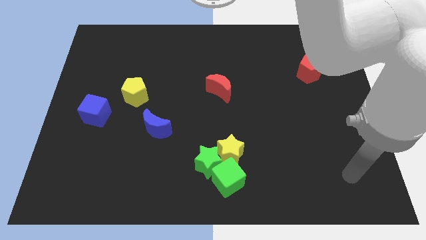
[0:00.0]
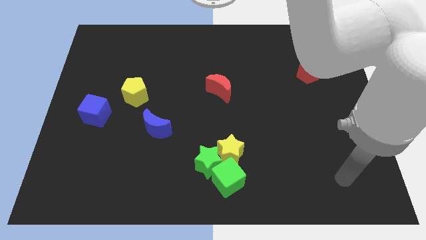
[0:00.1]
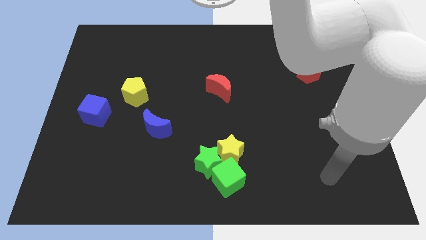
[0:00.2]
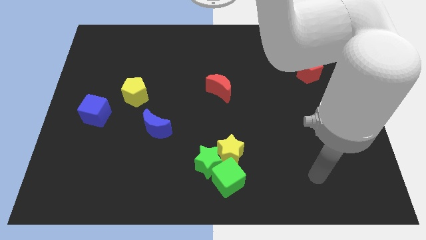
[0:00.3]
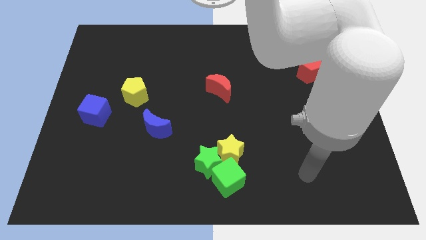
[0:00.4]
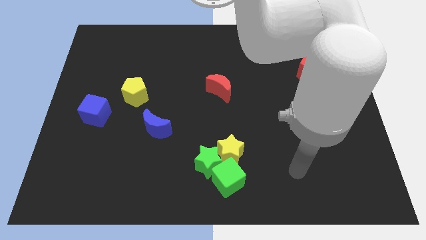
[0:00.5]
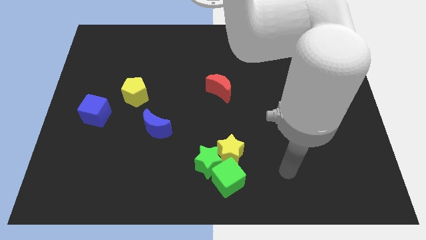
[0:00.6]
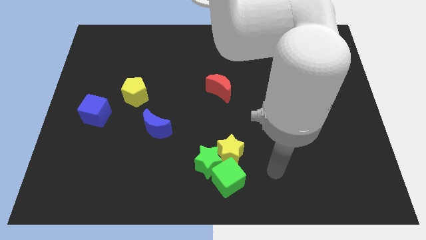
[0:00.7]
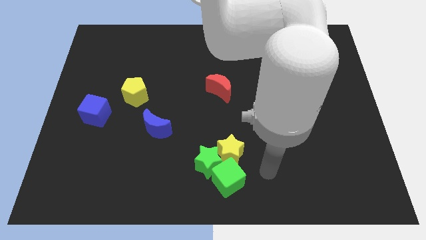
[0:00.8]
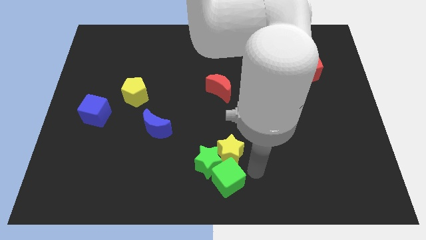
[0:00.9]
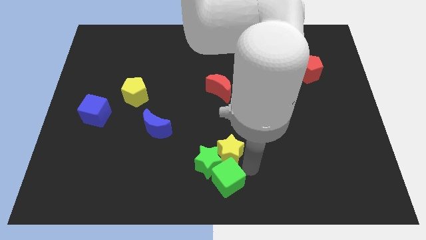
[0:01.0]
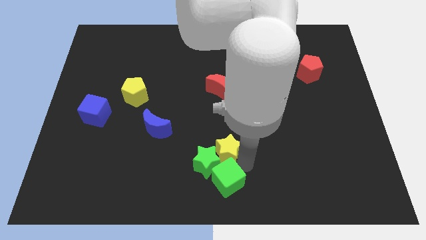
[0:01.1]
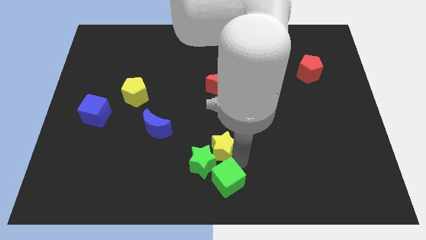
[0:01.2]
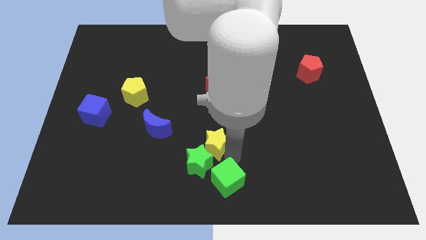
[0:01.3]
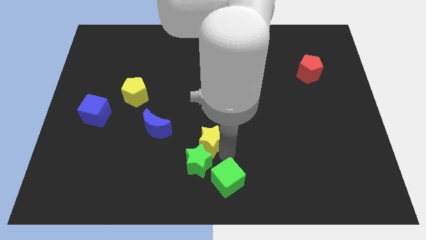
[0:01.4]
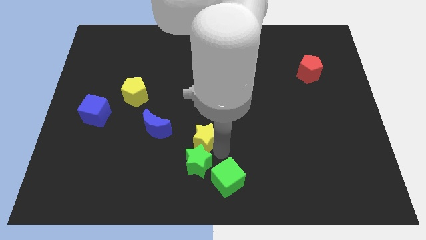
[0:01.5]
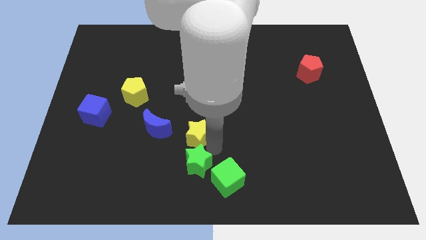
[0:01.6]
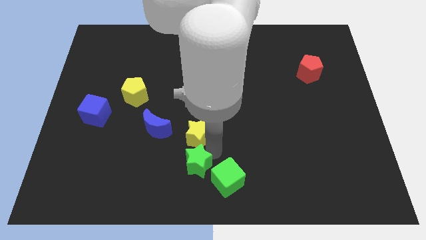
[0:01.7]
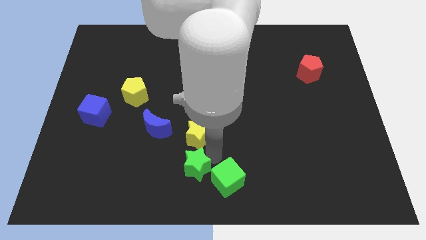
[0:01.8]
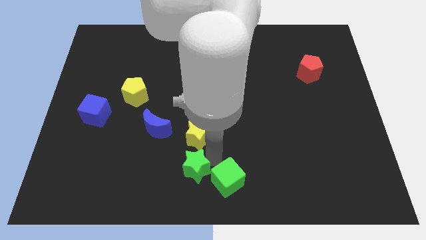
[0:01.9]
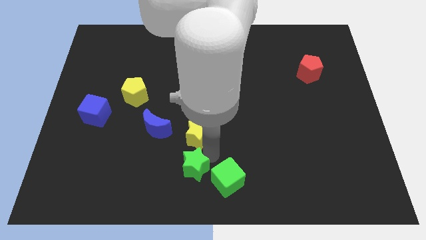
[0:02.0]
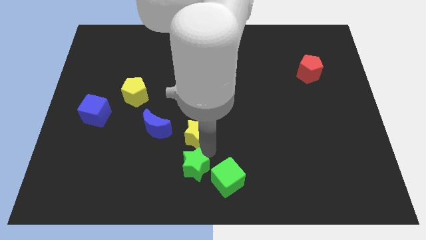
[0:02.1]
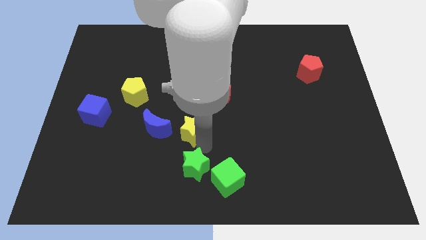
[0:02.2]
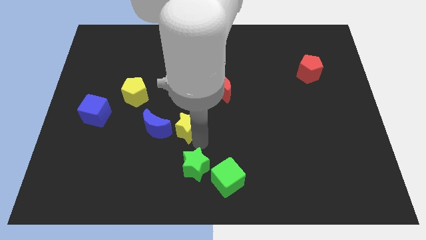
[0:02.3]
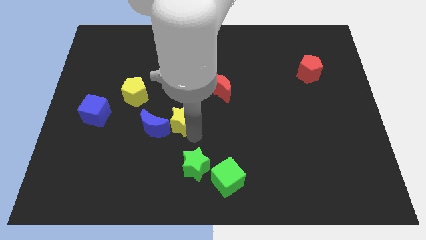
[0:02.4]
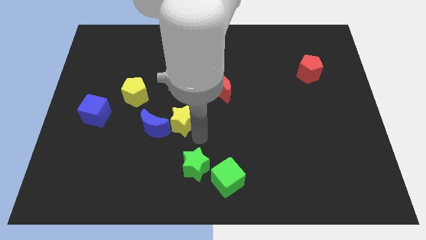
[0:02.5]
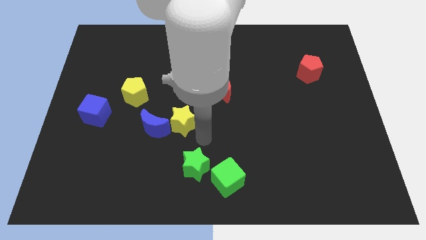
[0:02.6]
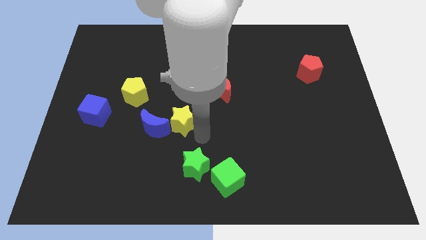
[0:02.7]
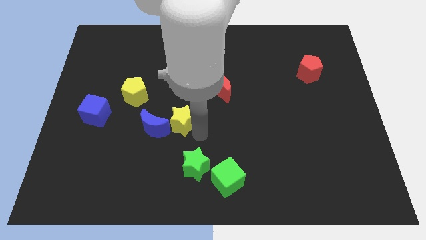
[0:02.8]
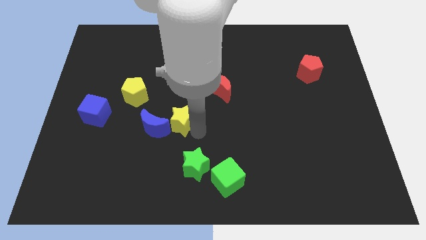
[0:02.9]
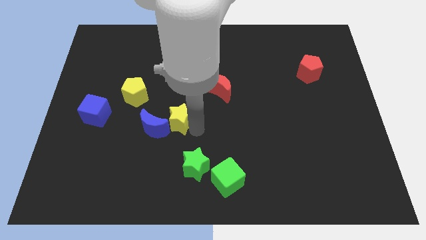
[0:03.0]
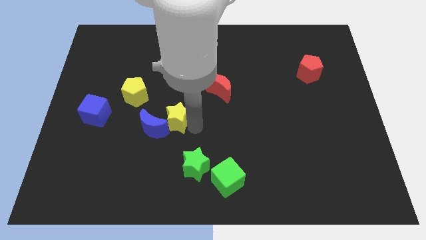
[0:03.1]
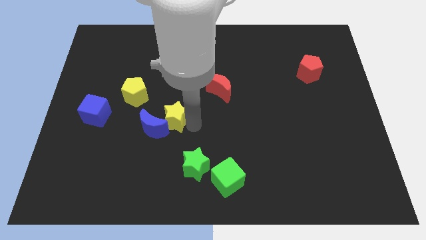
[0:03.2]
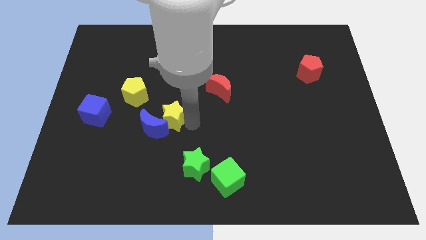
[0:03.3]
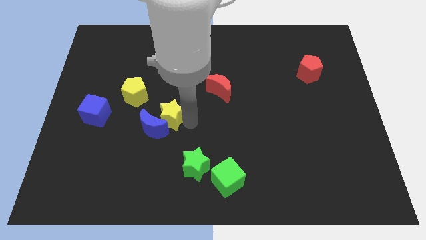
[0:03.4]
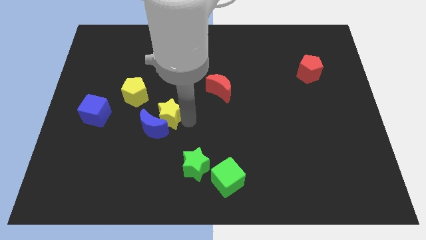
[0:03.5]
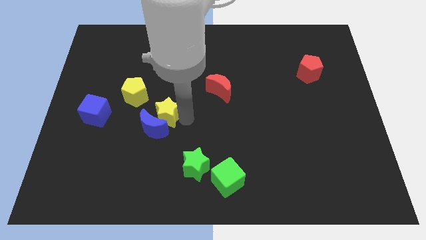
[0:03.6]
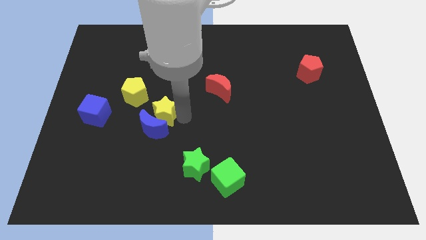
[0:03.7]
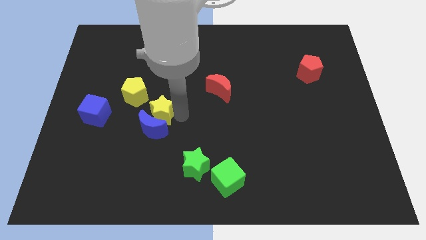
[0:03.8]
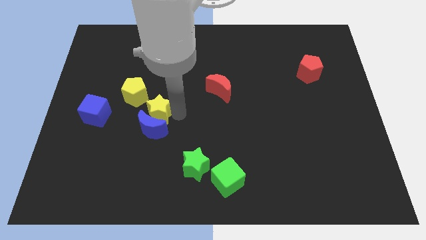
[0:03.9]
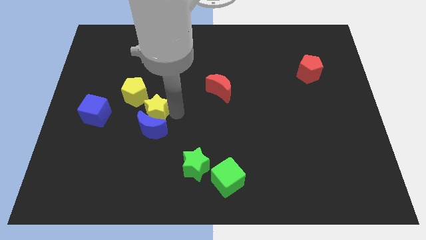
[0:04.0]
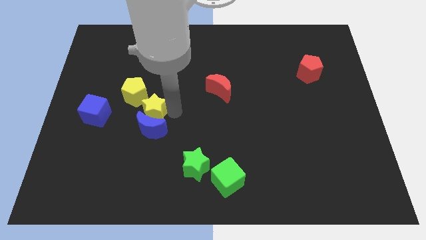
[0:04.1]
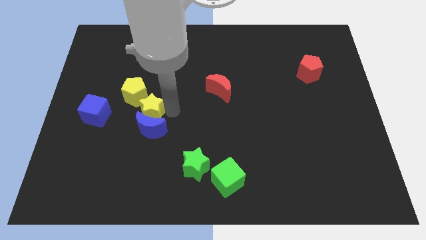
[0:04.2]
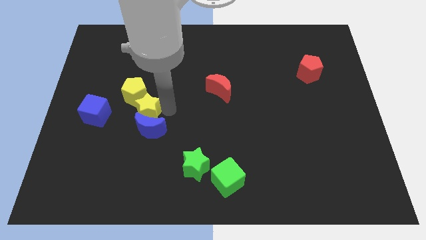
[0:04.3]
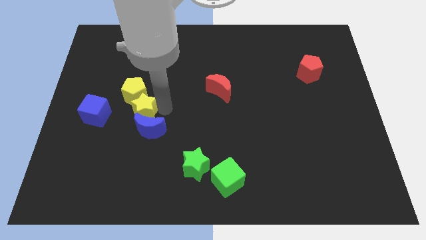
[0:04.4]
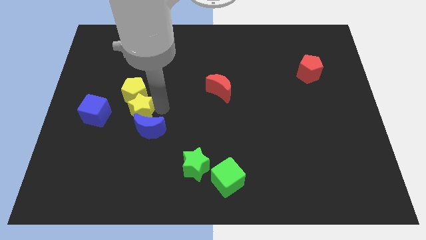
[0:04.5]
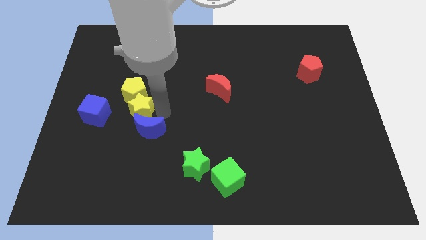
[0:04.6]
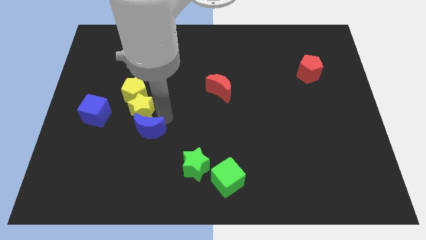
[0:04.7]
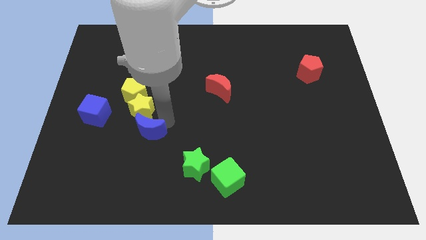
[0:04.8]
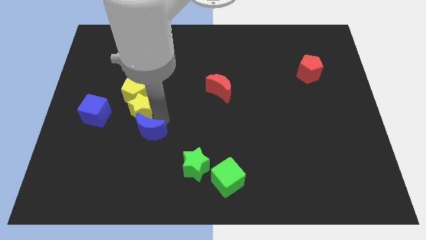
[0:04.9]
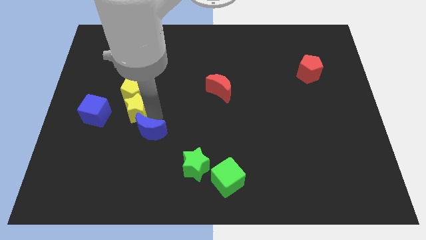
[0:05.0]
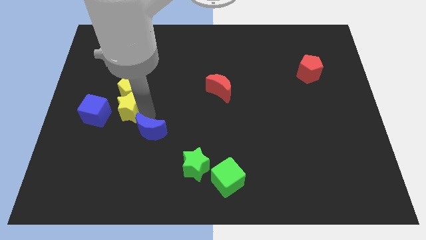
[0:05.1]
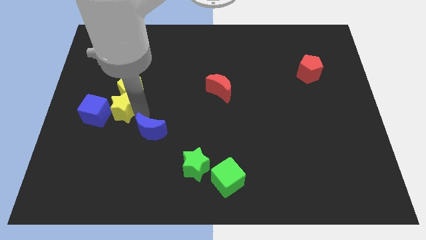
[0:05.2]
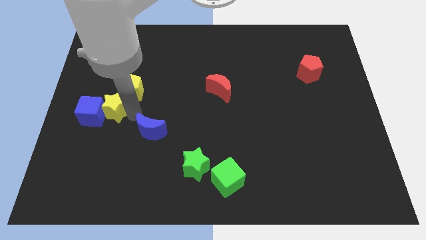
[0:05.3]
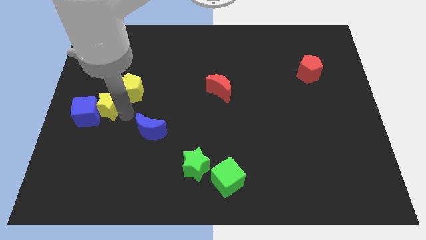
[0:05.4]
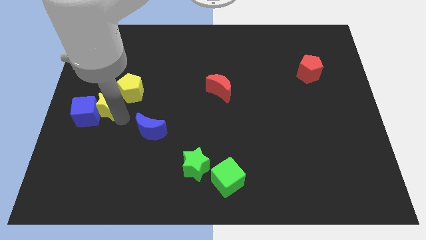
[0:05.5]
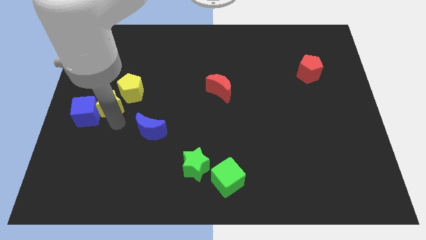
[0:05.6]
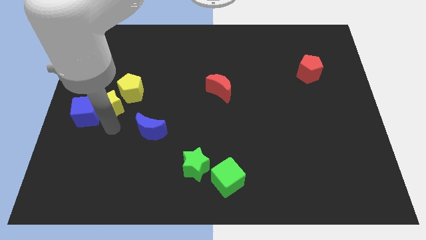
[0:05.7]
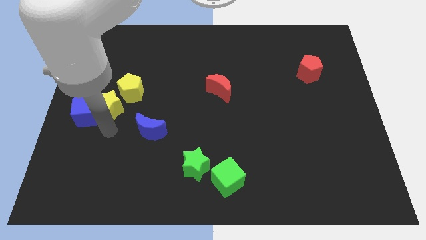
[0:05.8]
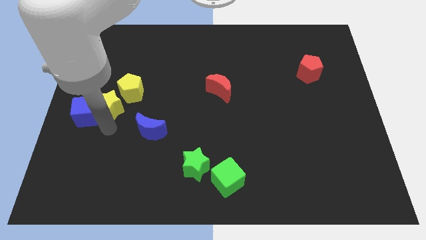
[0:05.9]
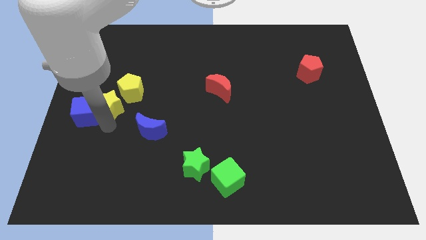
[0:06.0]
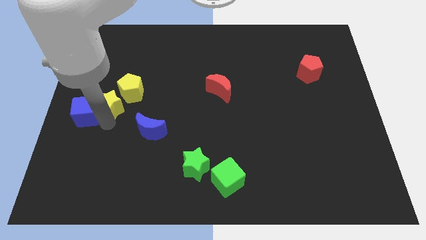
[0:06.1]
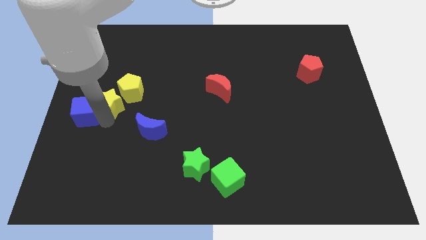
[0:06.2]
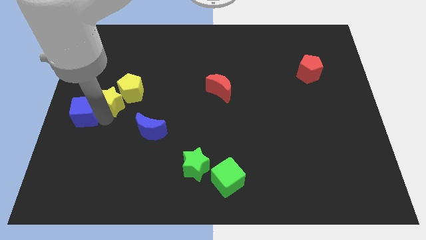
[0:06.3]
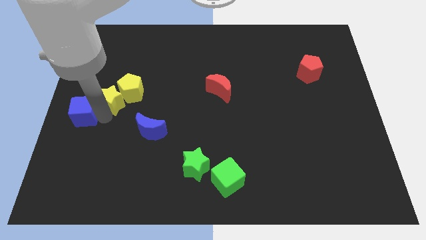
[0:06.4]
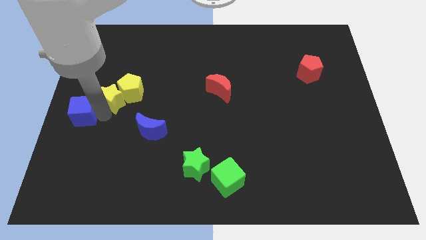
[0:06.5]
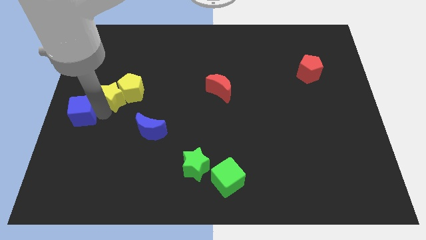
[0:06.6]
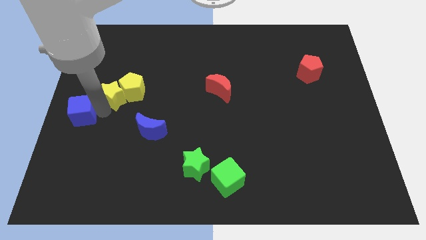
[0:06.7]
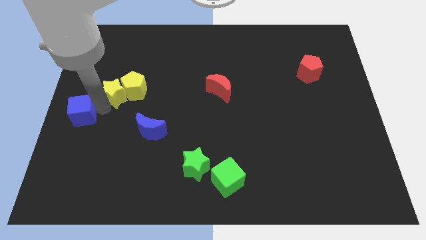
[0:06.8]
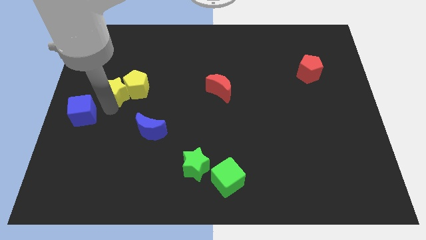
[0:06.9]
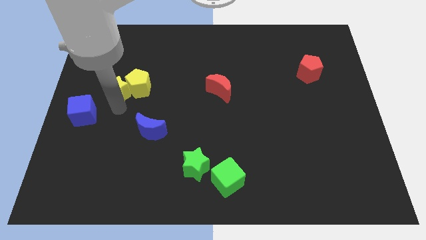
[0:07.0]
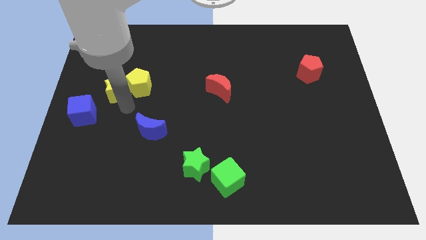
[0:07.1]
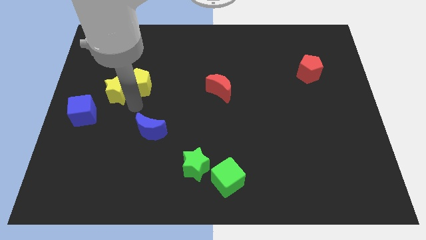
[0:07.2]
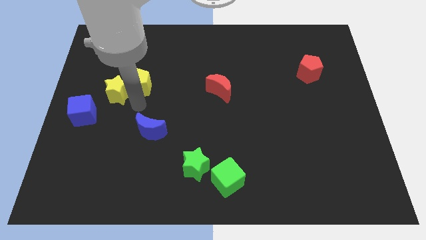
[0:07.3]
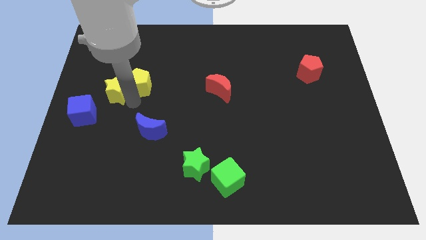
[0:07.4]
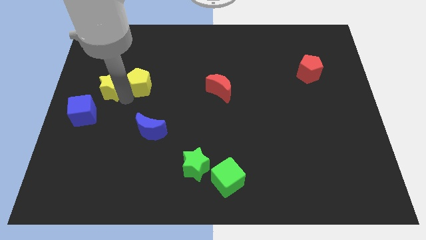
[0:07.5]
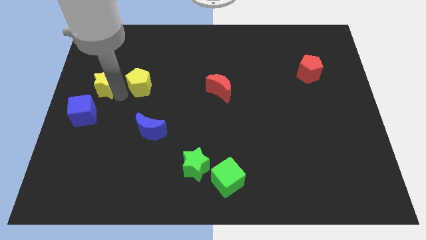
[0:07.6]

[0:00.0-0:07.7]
slide the yellow star to the top side of the blue cube
